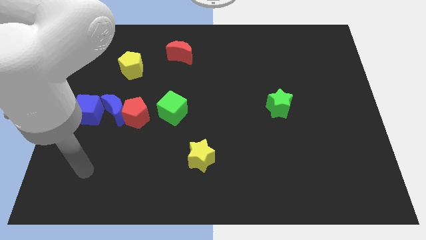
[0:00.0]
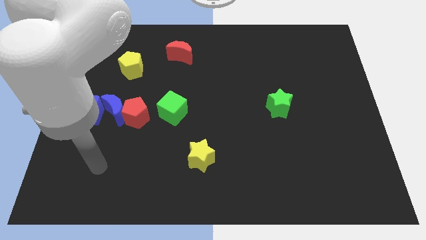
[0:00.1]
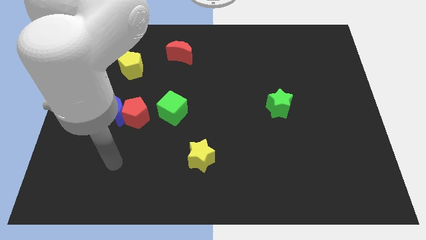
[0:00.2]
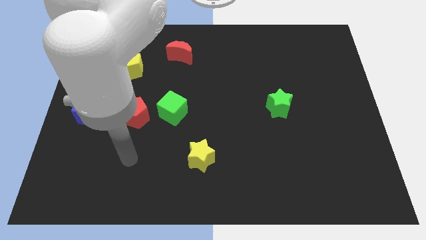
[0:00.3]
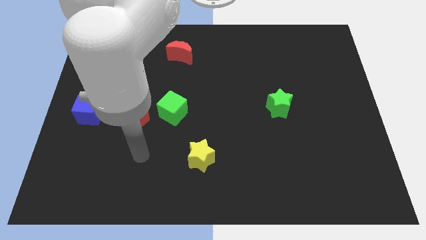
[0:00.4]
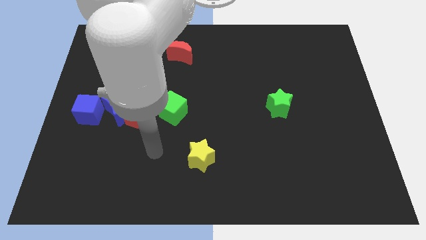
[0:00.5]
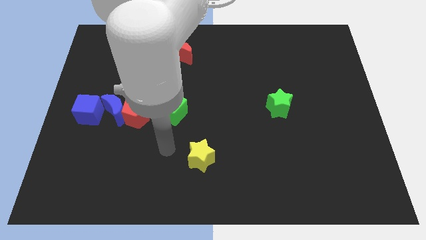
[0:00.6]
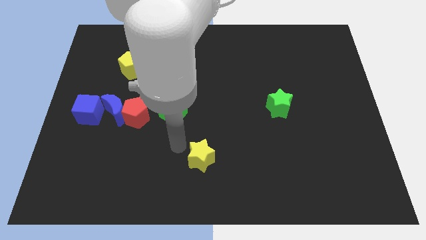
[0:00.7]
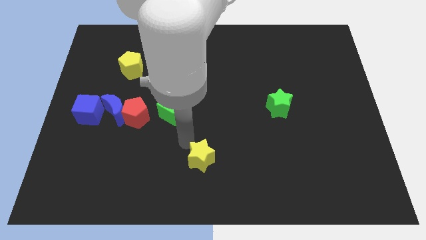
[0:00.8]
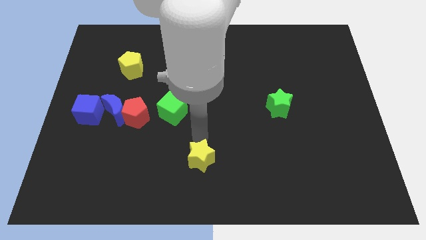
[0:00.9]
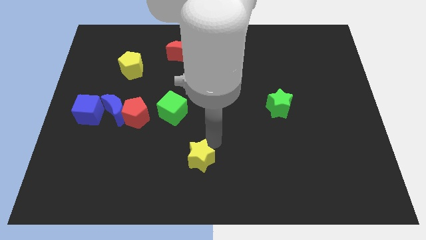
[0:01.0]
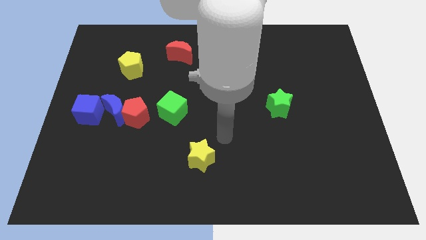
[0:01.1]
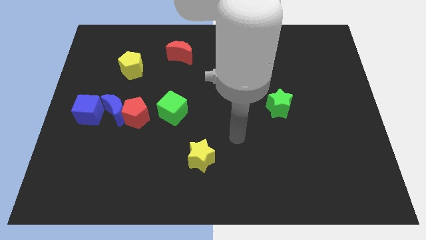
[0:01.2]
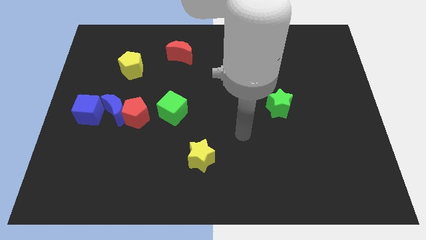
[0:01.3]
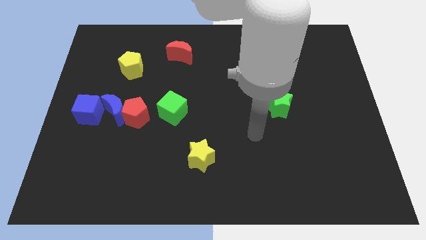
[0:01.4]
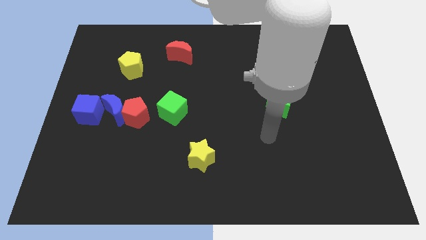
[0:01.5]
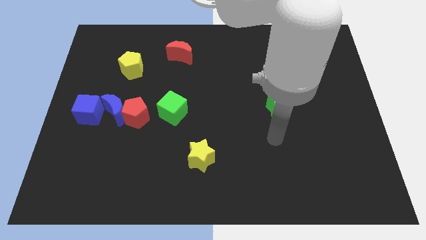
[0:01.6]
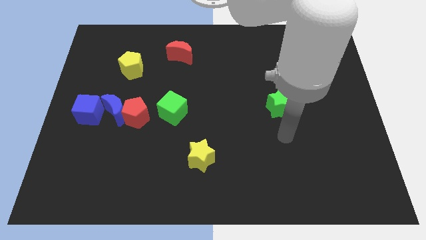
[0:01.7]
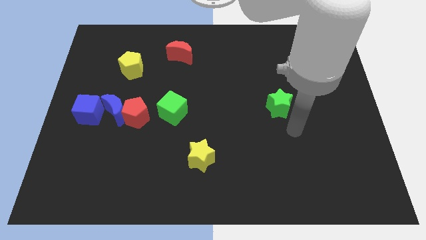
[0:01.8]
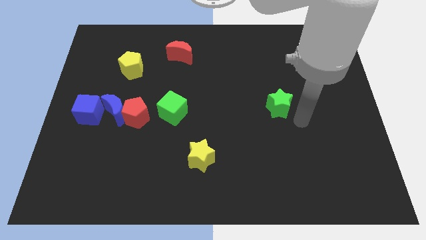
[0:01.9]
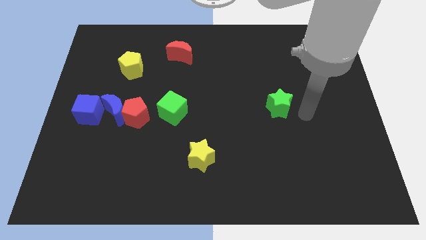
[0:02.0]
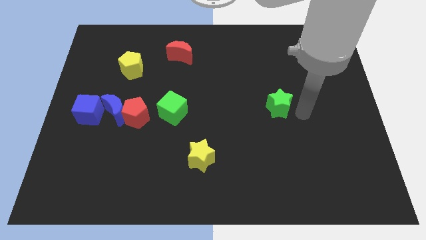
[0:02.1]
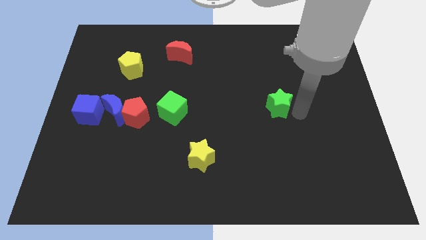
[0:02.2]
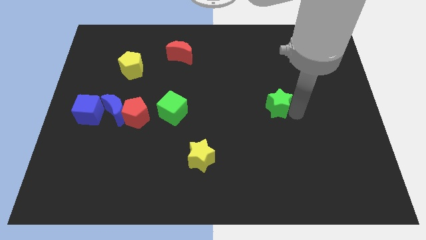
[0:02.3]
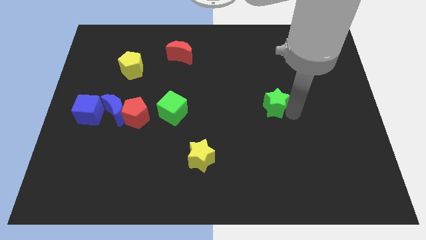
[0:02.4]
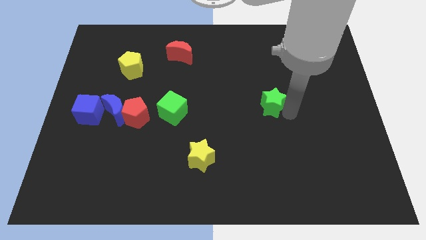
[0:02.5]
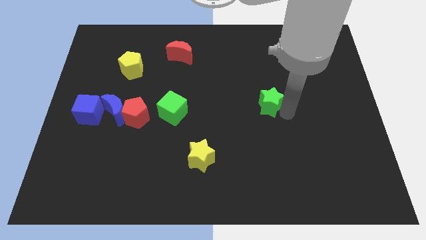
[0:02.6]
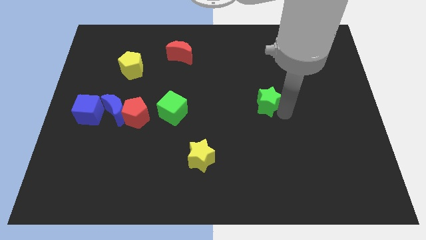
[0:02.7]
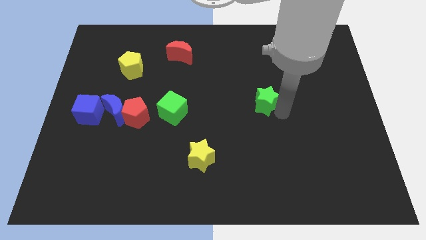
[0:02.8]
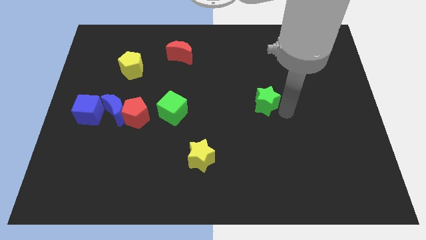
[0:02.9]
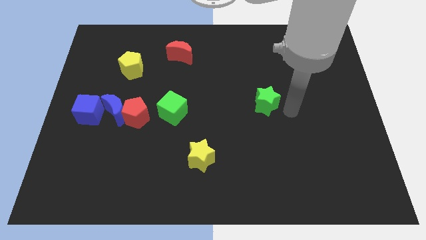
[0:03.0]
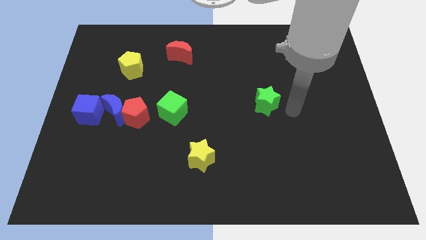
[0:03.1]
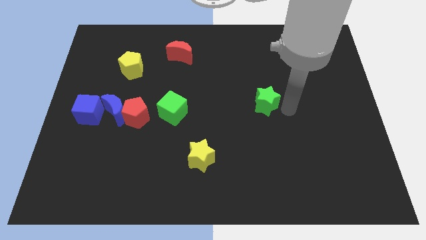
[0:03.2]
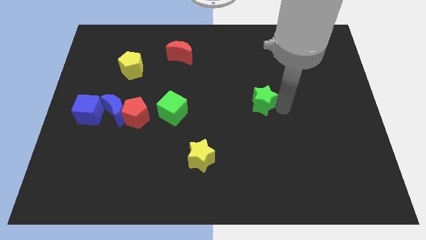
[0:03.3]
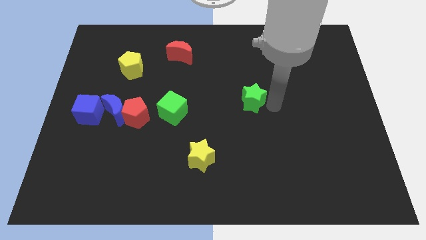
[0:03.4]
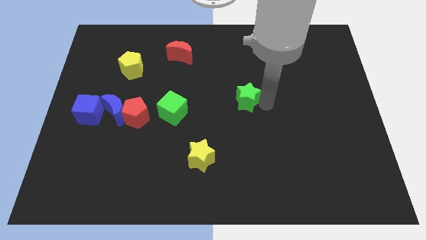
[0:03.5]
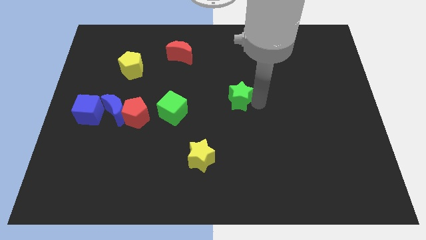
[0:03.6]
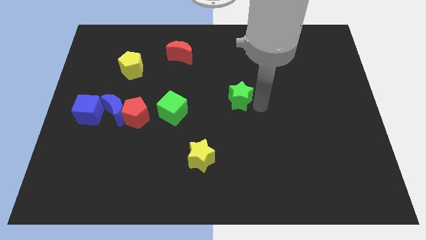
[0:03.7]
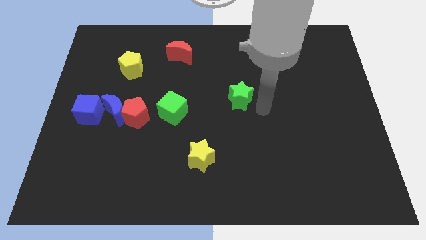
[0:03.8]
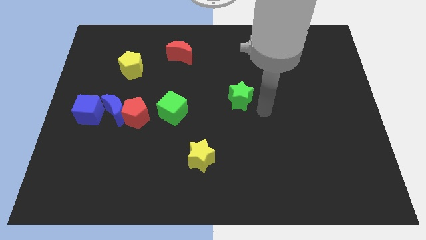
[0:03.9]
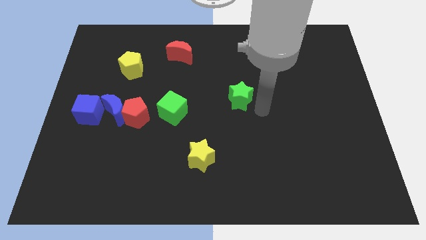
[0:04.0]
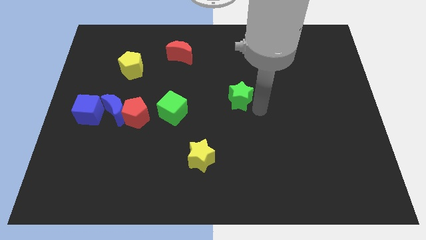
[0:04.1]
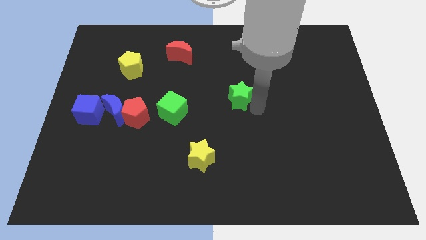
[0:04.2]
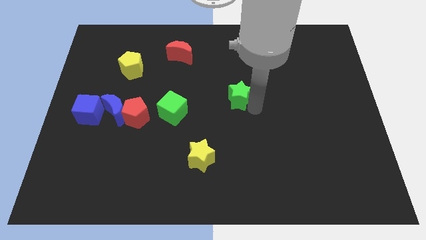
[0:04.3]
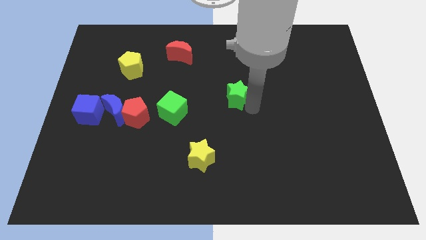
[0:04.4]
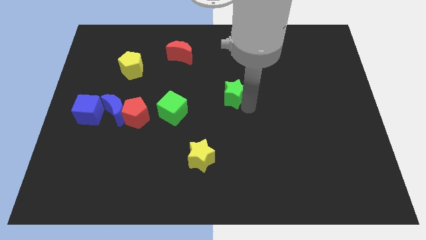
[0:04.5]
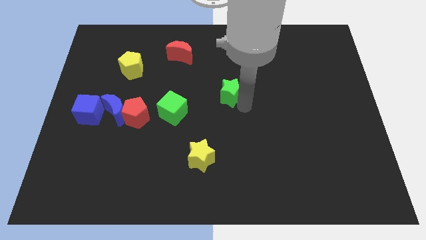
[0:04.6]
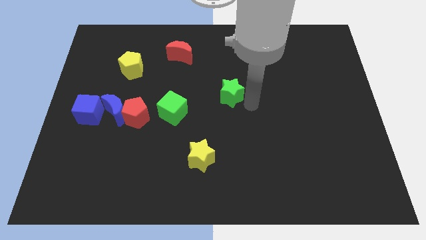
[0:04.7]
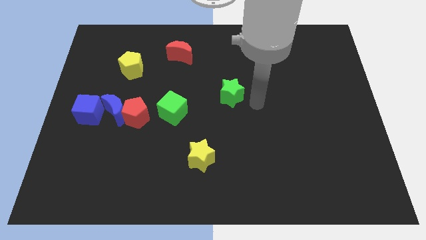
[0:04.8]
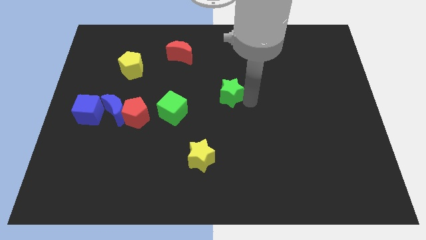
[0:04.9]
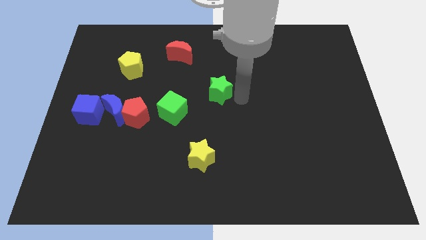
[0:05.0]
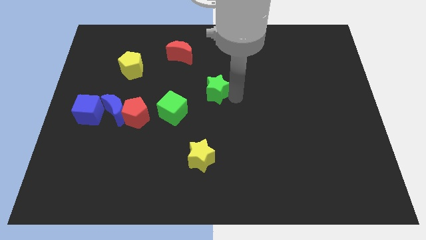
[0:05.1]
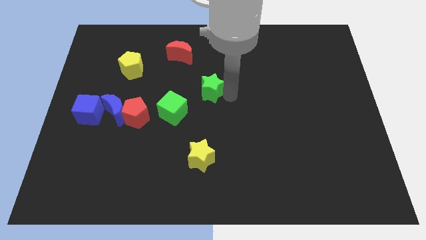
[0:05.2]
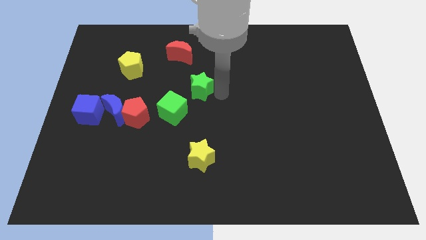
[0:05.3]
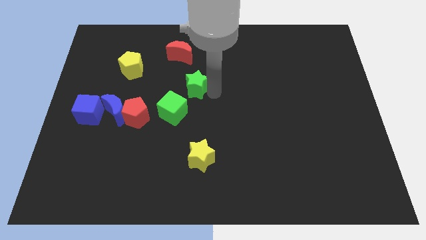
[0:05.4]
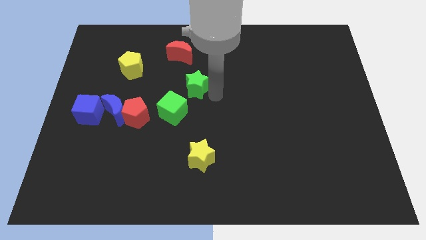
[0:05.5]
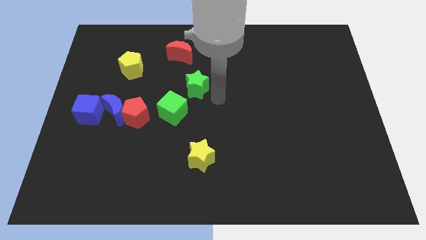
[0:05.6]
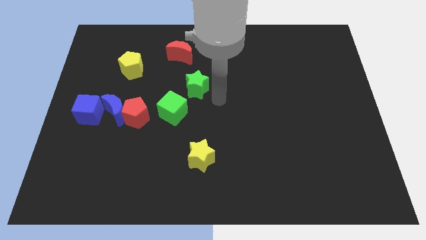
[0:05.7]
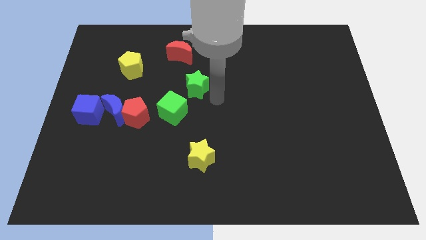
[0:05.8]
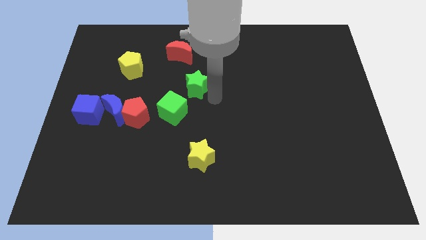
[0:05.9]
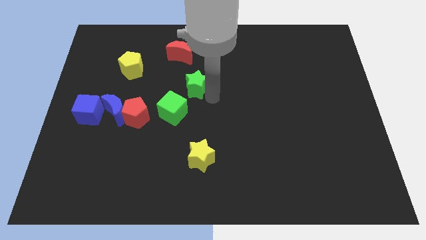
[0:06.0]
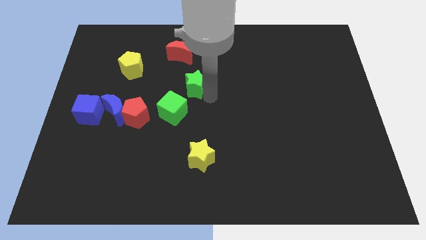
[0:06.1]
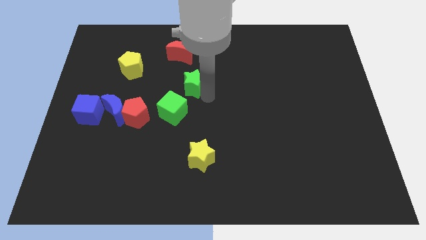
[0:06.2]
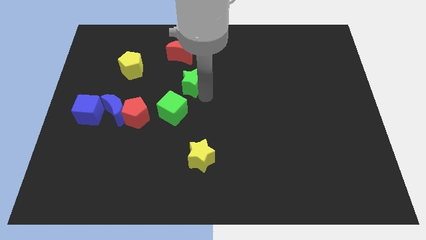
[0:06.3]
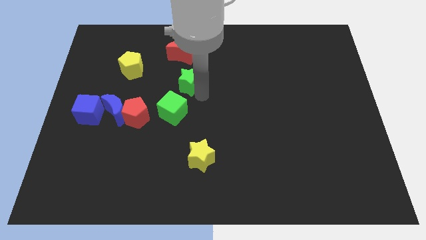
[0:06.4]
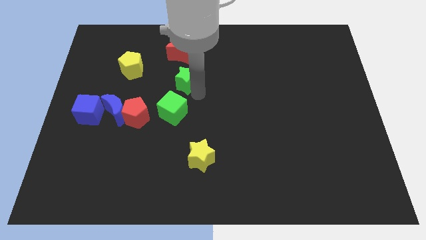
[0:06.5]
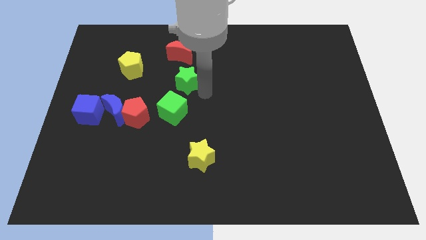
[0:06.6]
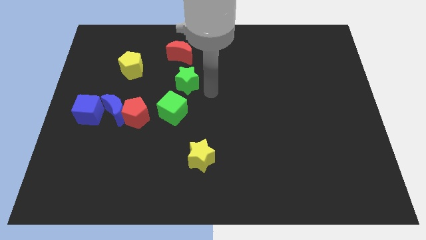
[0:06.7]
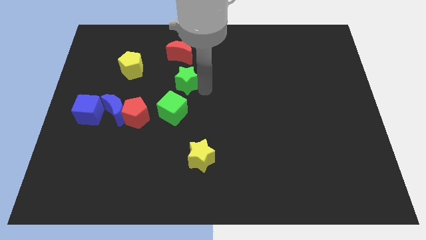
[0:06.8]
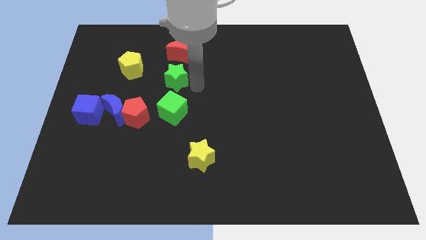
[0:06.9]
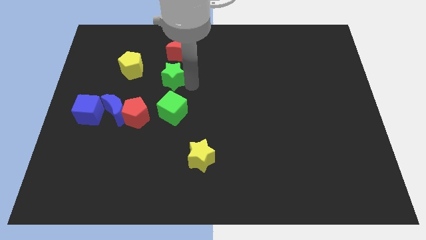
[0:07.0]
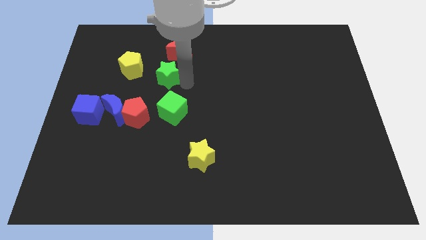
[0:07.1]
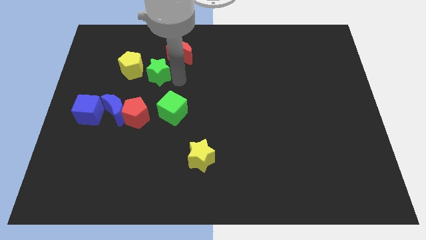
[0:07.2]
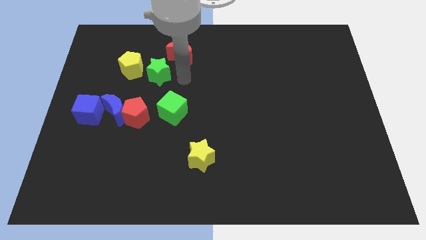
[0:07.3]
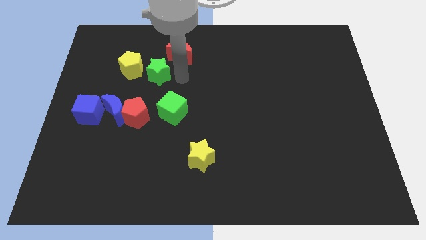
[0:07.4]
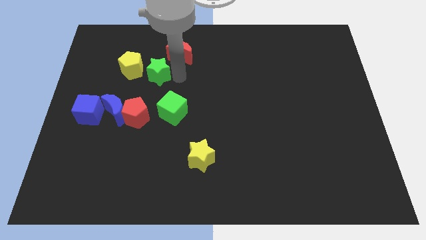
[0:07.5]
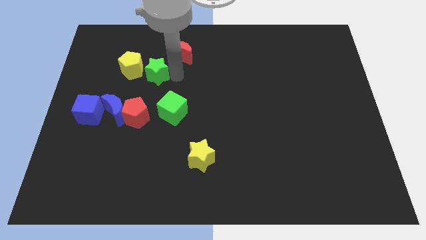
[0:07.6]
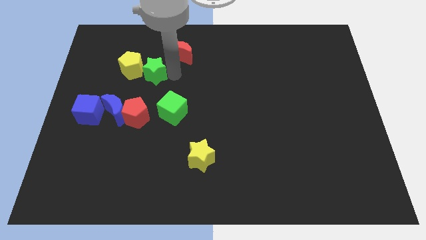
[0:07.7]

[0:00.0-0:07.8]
push the green star close to the yellow pentagon
